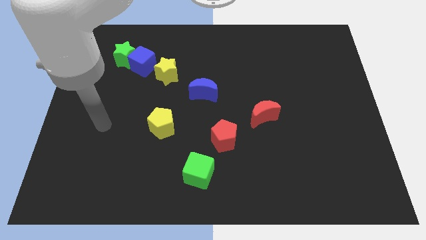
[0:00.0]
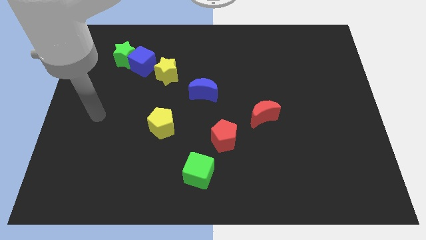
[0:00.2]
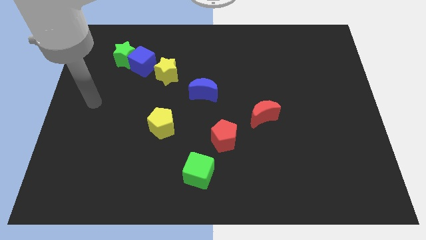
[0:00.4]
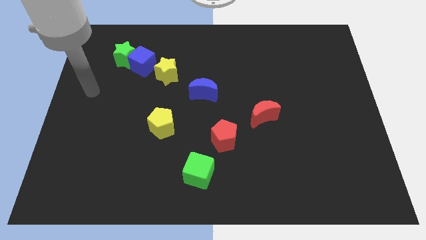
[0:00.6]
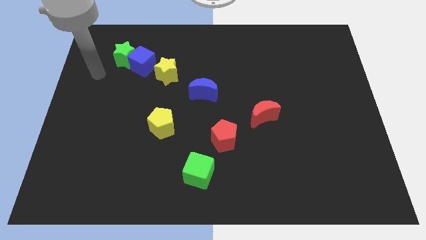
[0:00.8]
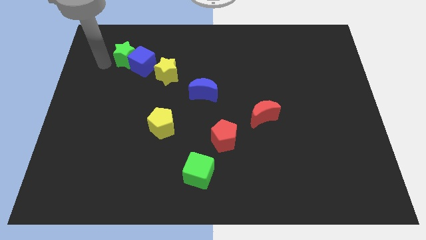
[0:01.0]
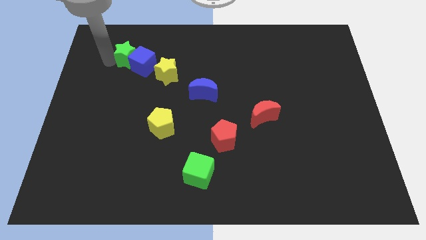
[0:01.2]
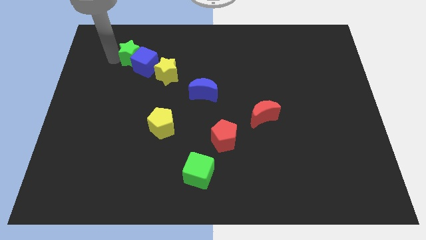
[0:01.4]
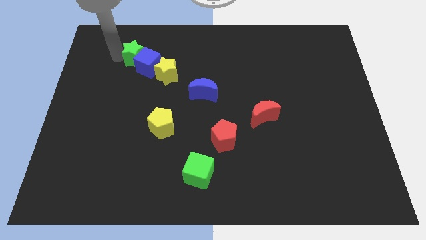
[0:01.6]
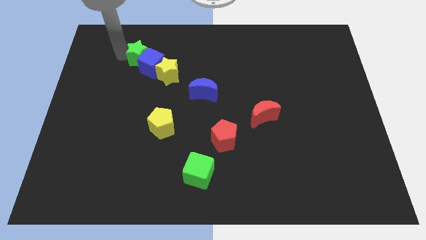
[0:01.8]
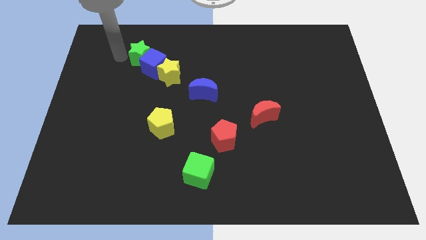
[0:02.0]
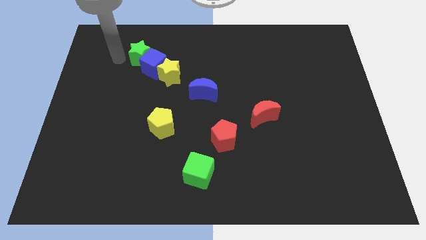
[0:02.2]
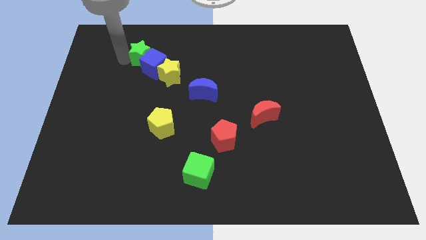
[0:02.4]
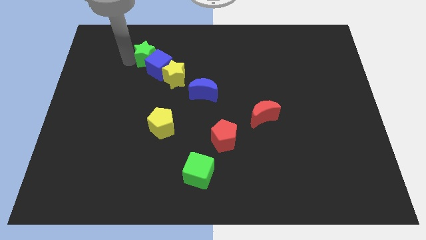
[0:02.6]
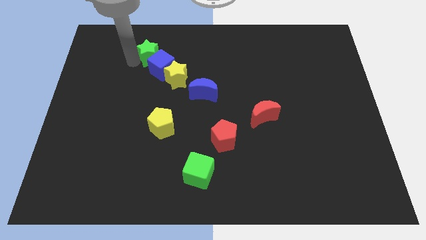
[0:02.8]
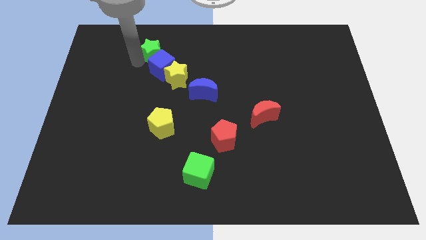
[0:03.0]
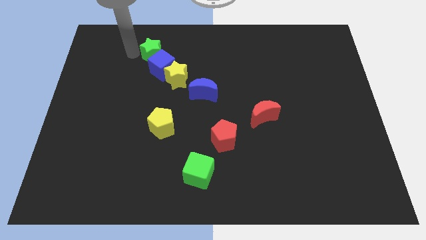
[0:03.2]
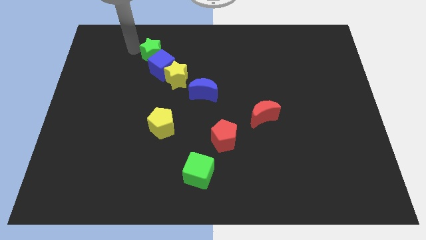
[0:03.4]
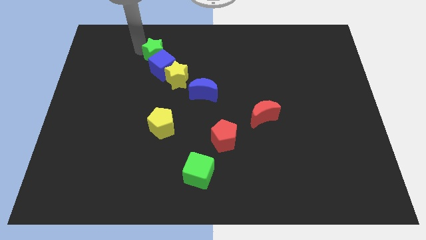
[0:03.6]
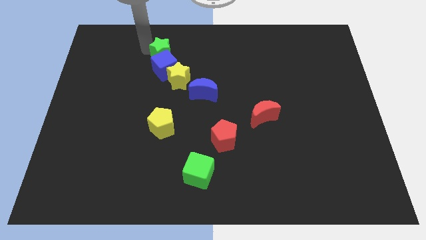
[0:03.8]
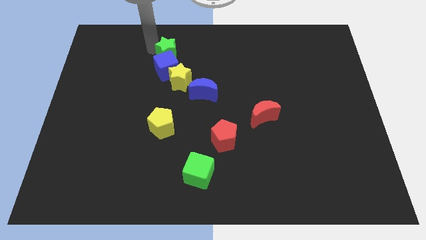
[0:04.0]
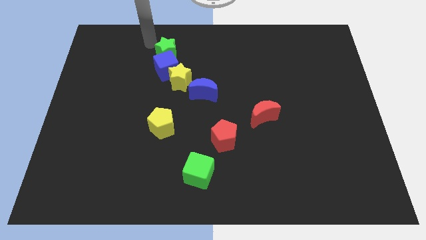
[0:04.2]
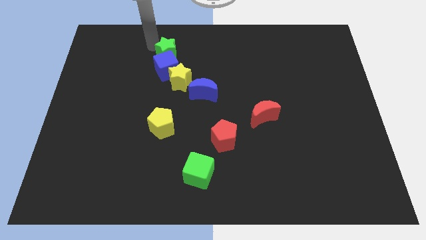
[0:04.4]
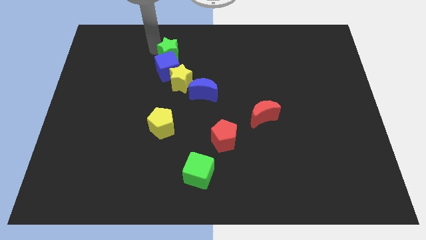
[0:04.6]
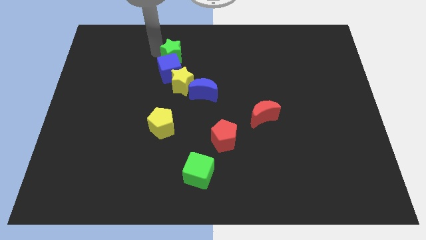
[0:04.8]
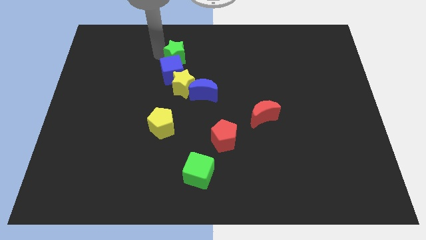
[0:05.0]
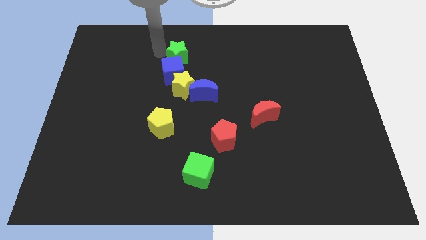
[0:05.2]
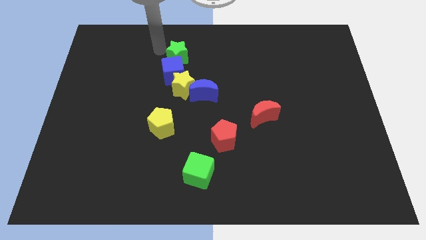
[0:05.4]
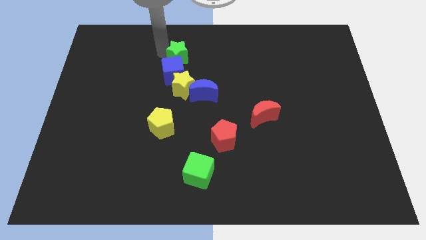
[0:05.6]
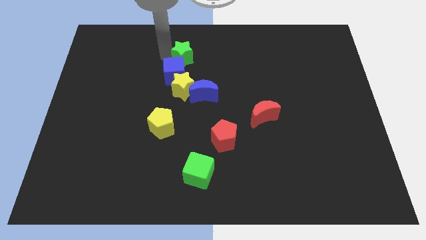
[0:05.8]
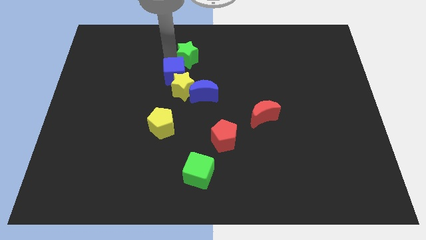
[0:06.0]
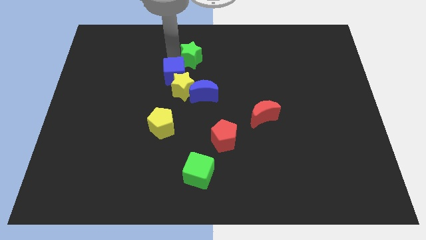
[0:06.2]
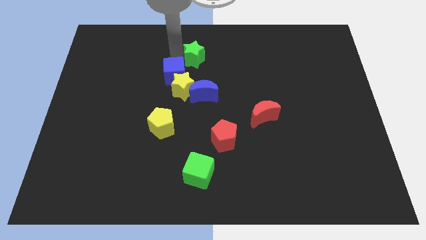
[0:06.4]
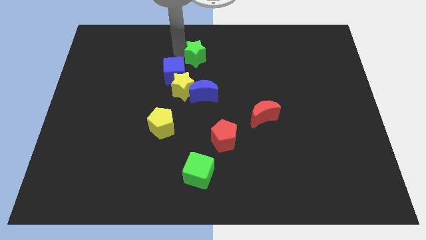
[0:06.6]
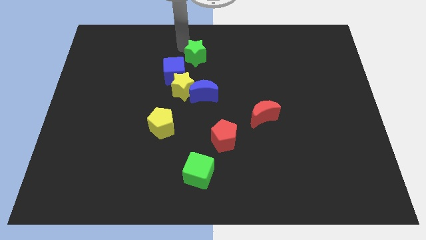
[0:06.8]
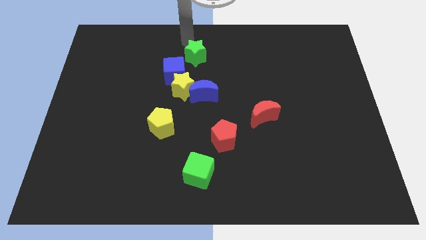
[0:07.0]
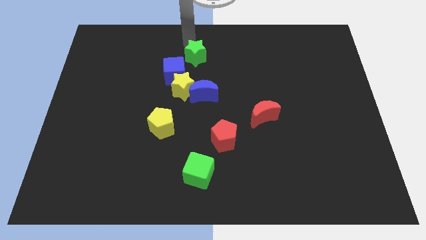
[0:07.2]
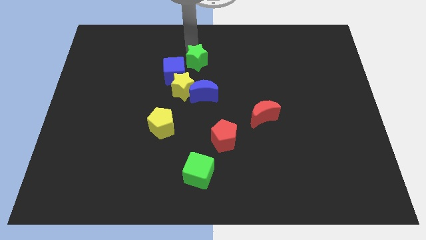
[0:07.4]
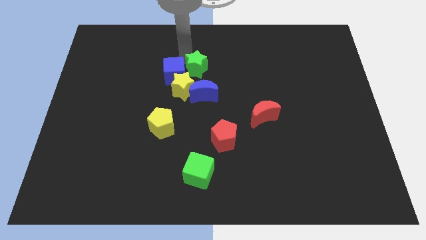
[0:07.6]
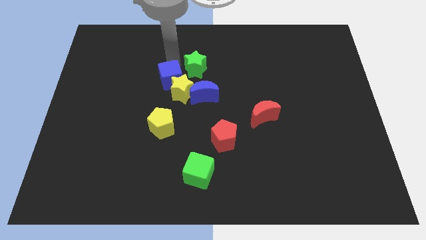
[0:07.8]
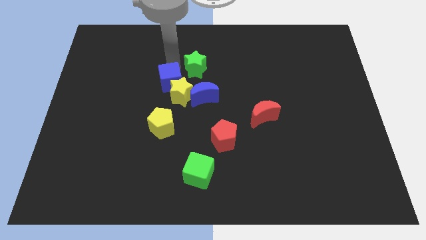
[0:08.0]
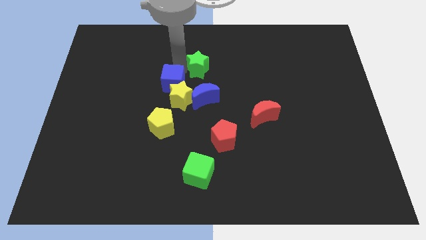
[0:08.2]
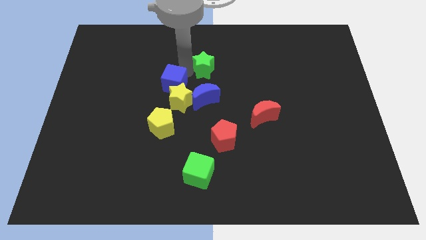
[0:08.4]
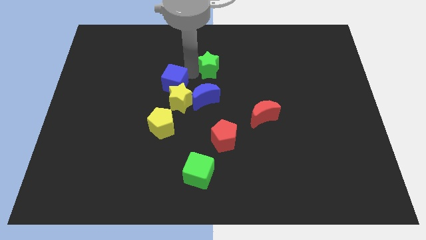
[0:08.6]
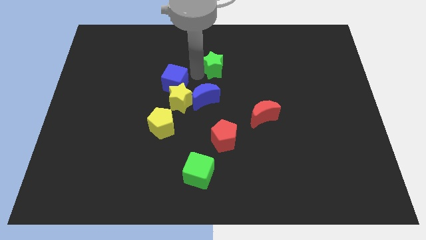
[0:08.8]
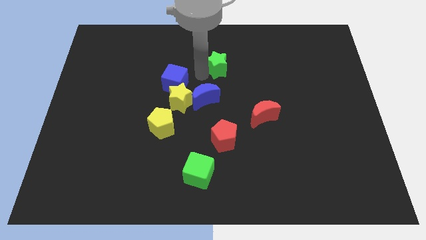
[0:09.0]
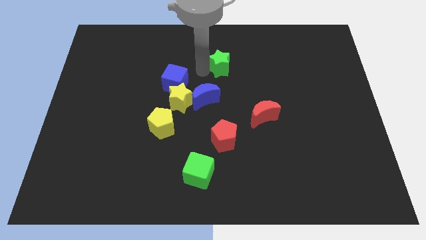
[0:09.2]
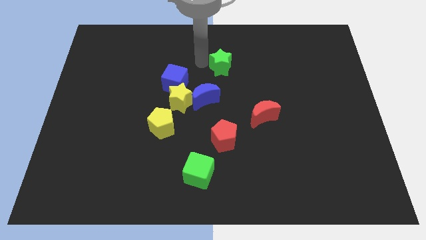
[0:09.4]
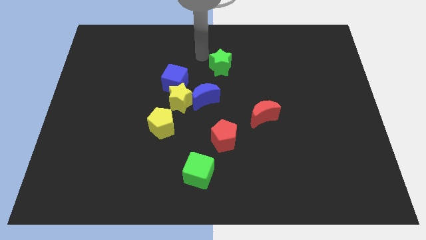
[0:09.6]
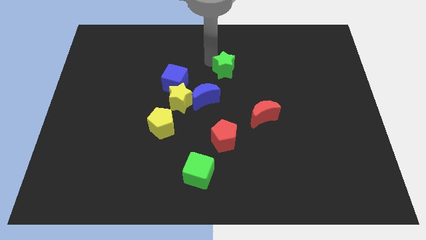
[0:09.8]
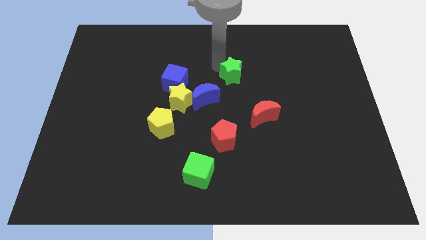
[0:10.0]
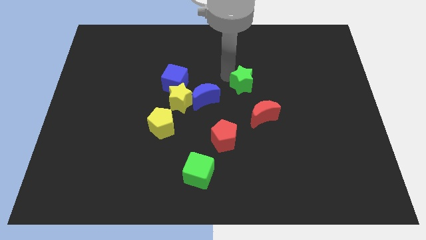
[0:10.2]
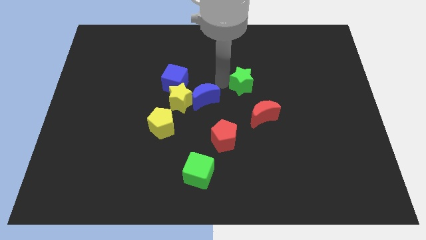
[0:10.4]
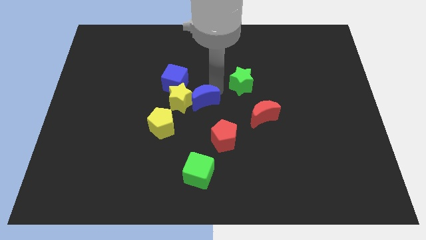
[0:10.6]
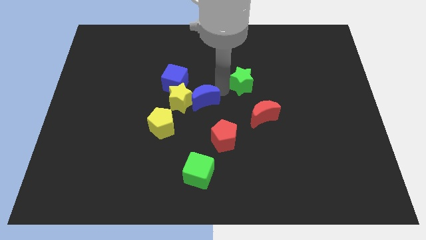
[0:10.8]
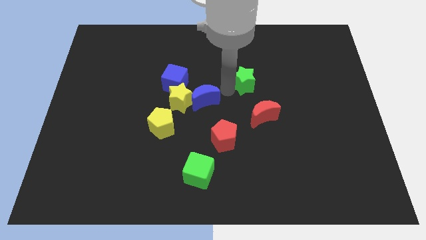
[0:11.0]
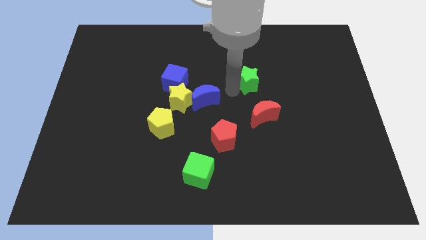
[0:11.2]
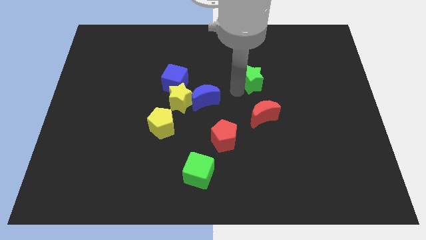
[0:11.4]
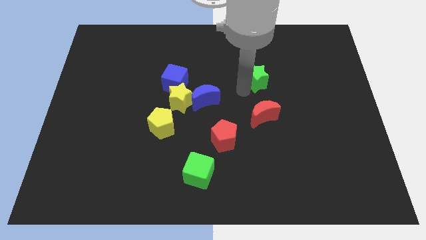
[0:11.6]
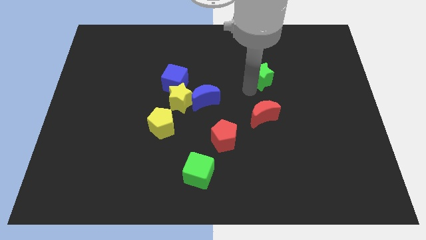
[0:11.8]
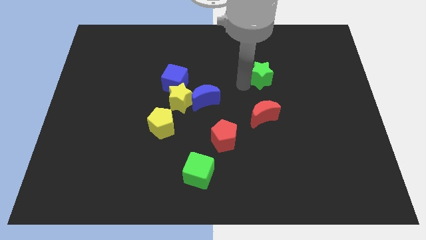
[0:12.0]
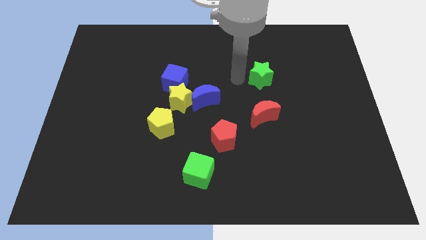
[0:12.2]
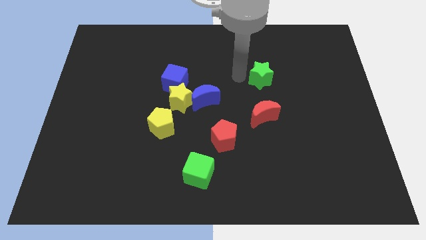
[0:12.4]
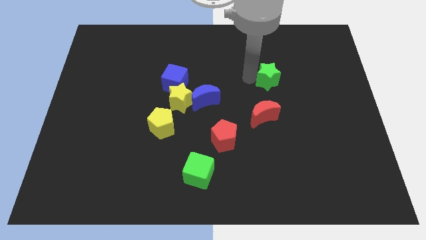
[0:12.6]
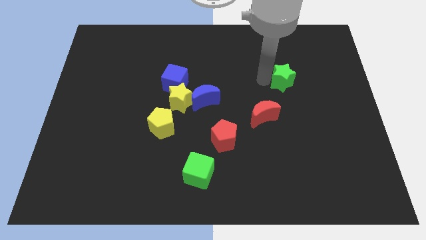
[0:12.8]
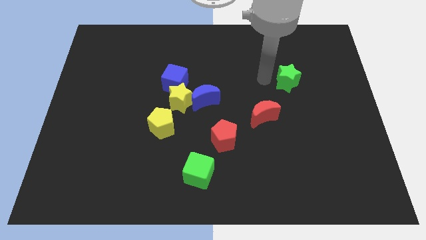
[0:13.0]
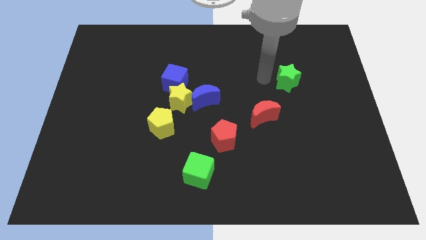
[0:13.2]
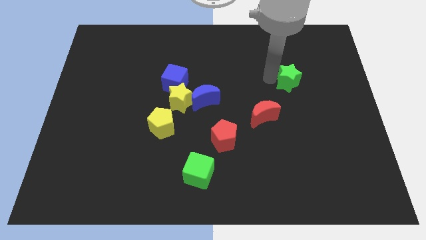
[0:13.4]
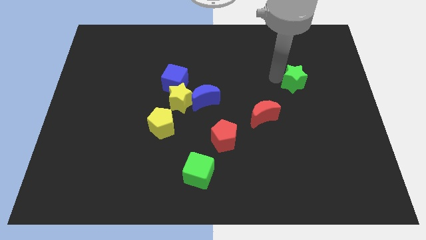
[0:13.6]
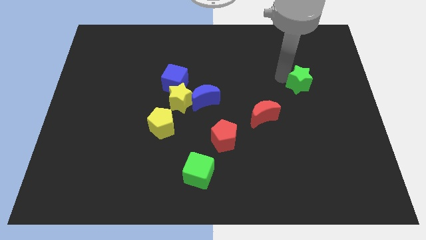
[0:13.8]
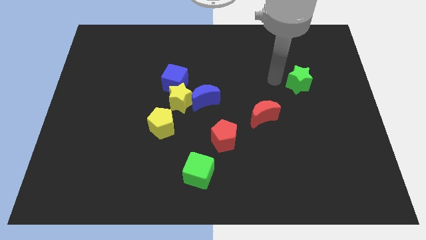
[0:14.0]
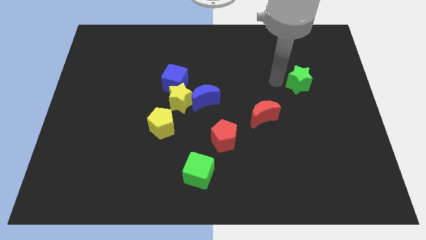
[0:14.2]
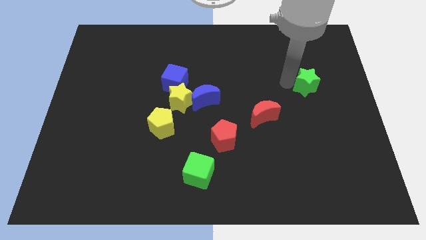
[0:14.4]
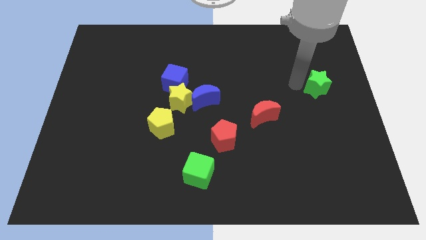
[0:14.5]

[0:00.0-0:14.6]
push the green star to the right side

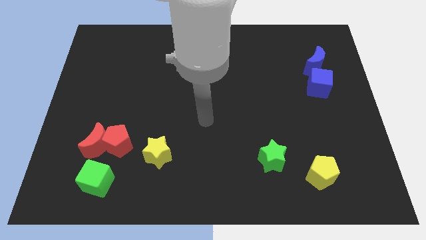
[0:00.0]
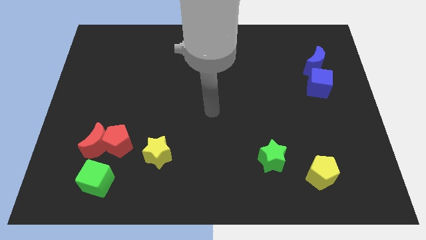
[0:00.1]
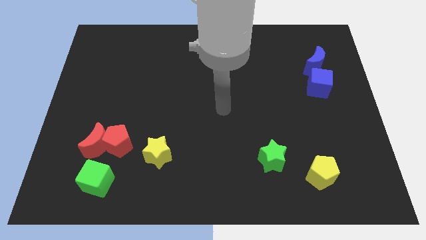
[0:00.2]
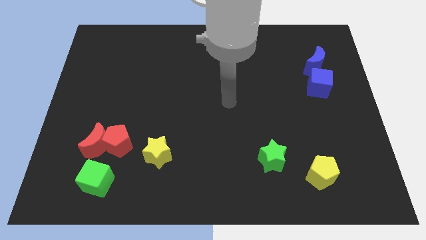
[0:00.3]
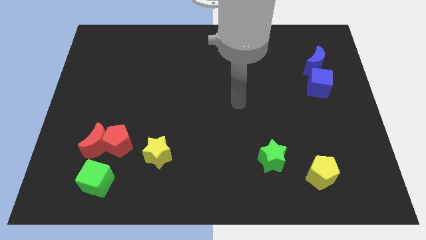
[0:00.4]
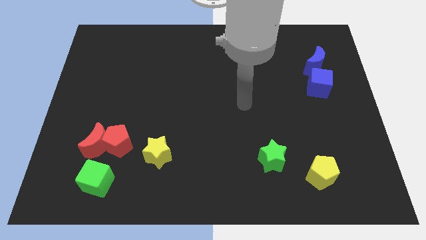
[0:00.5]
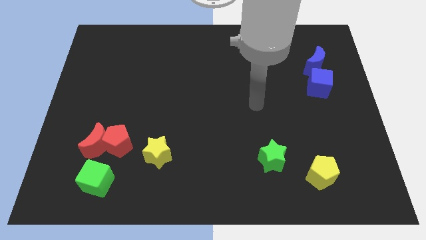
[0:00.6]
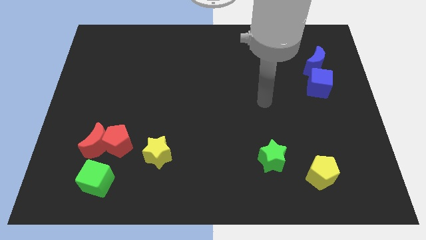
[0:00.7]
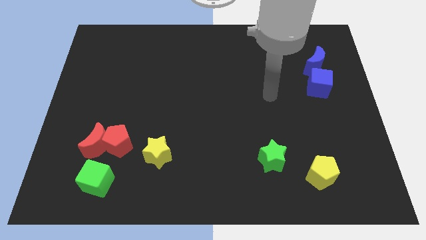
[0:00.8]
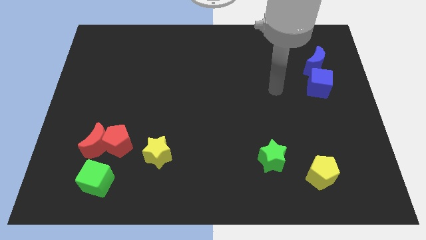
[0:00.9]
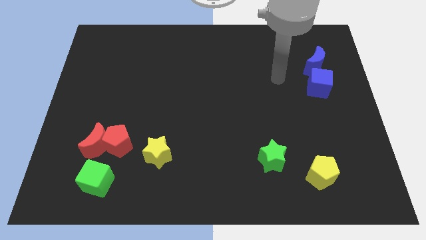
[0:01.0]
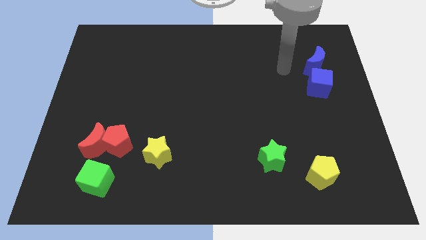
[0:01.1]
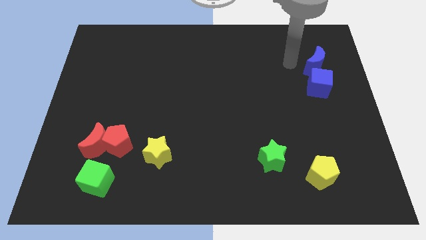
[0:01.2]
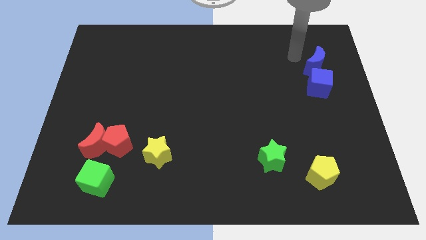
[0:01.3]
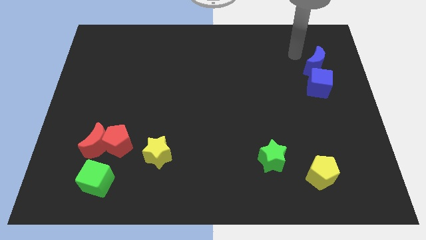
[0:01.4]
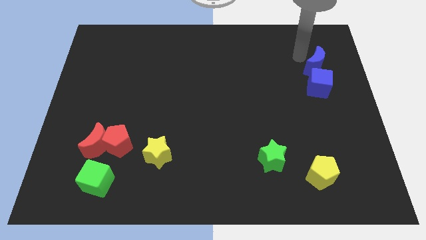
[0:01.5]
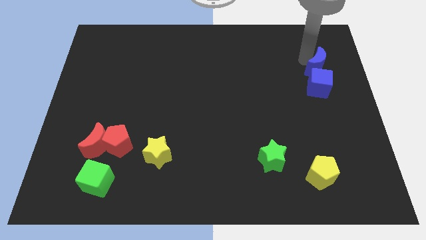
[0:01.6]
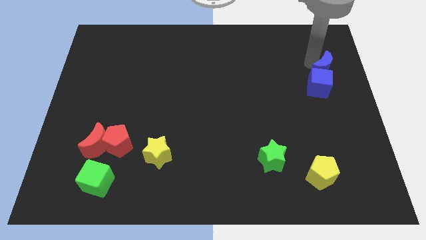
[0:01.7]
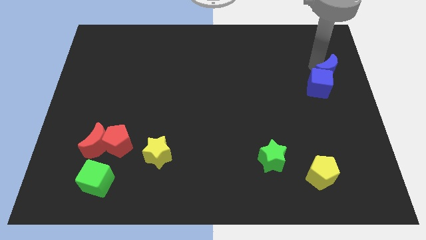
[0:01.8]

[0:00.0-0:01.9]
put the blue moon to the right side of the board
